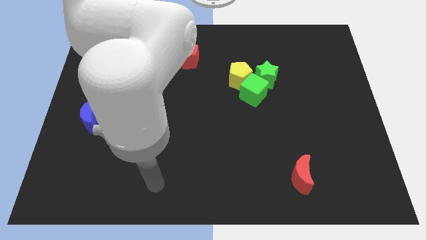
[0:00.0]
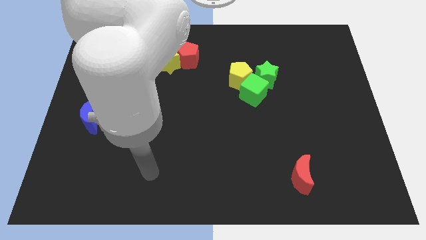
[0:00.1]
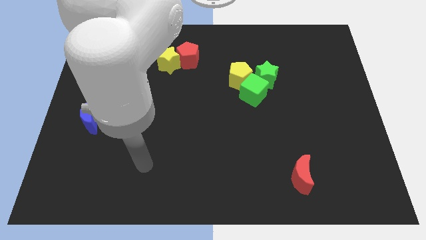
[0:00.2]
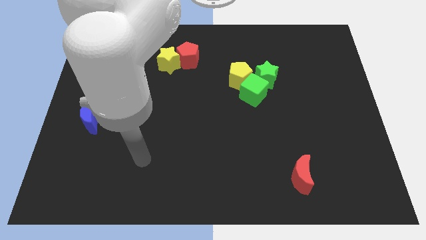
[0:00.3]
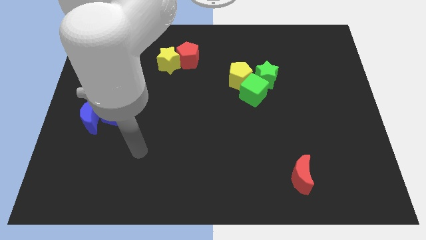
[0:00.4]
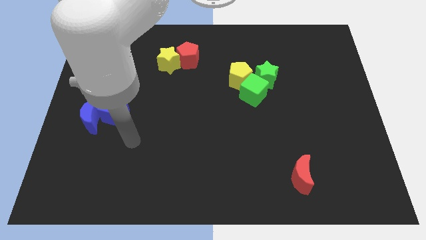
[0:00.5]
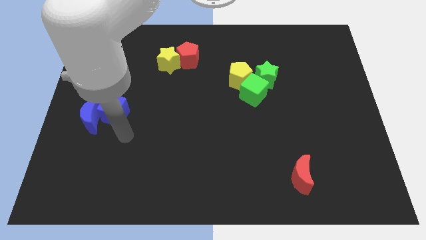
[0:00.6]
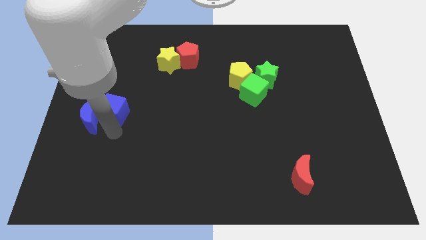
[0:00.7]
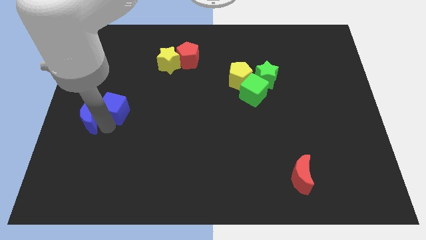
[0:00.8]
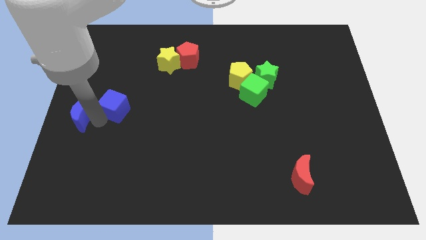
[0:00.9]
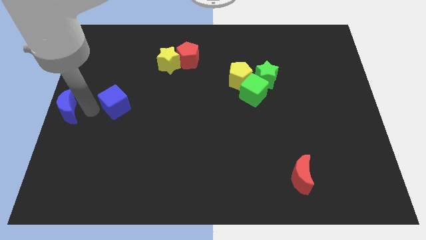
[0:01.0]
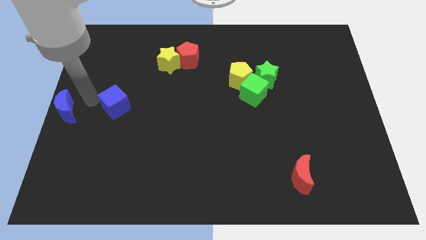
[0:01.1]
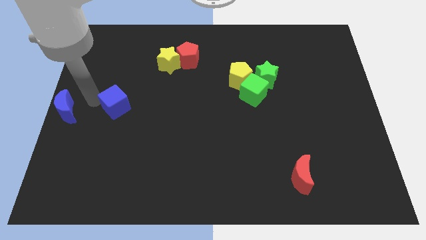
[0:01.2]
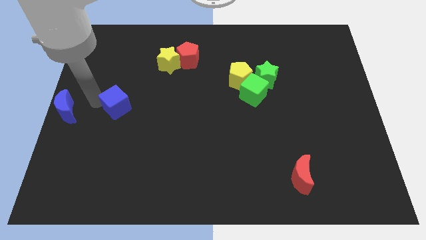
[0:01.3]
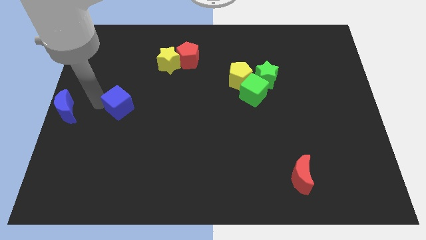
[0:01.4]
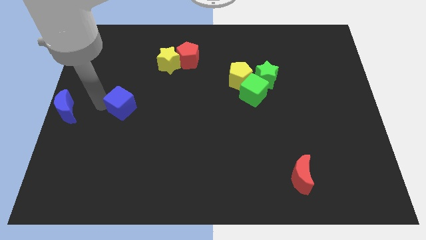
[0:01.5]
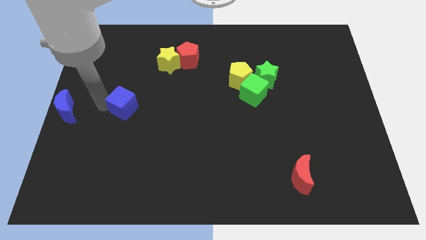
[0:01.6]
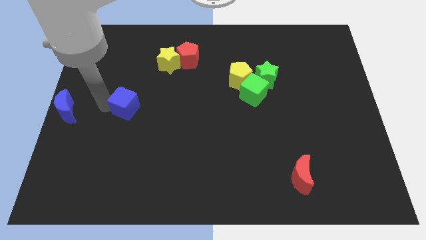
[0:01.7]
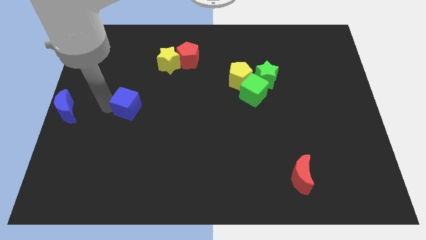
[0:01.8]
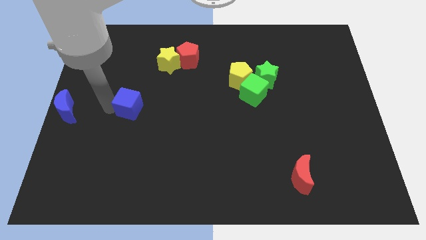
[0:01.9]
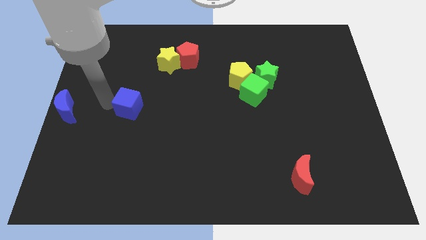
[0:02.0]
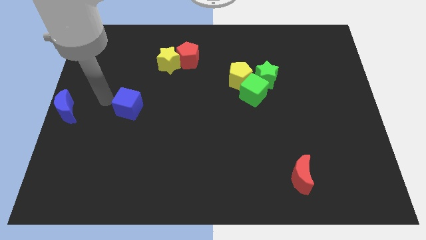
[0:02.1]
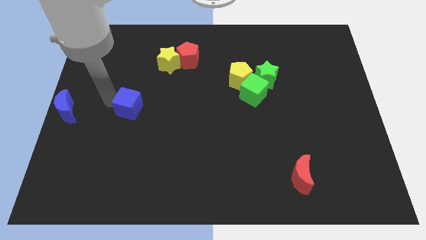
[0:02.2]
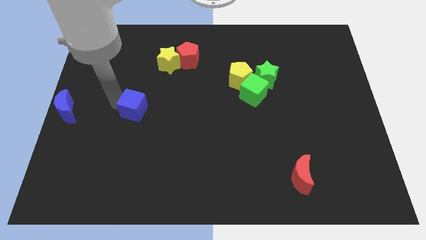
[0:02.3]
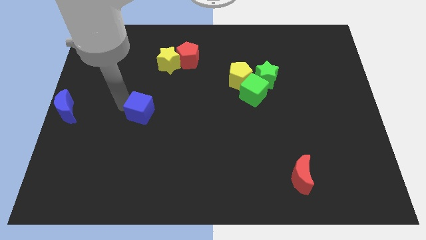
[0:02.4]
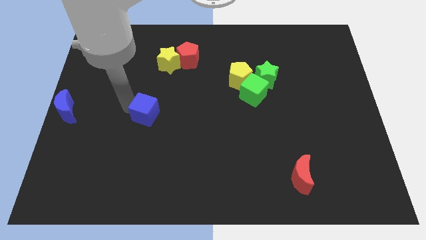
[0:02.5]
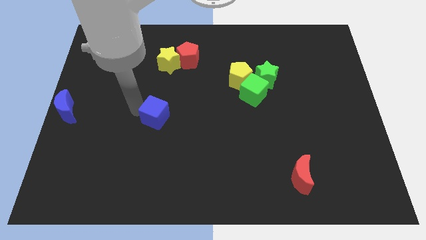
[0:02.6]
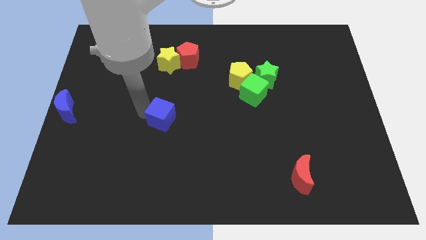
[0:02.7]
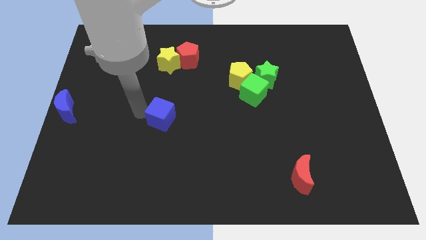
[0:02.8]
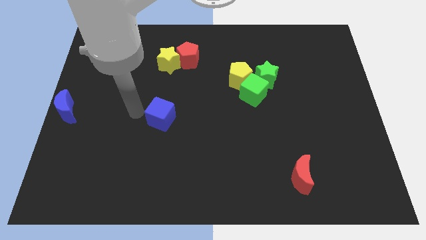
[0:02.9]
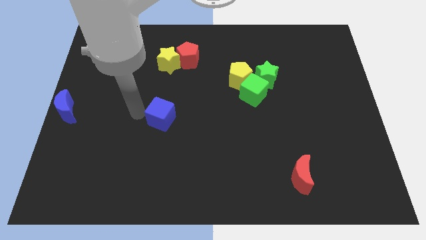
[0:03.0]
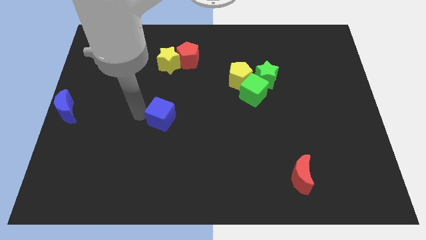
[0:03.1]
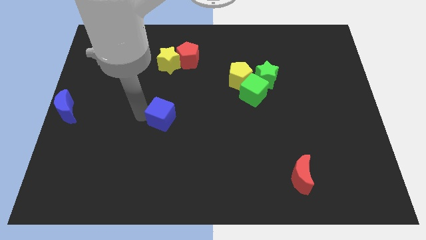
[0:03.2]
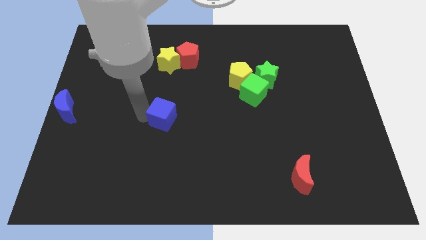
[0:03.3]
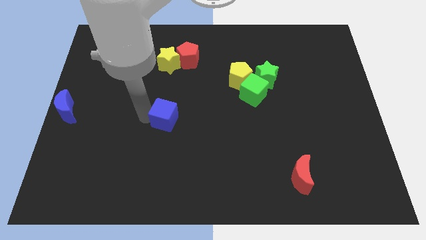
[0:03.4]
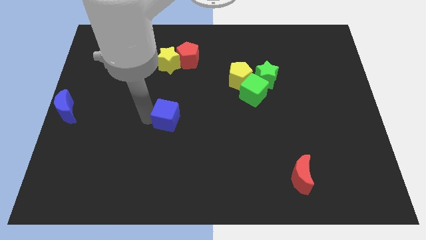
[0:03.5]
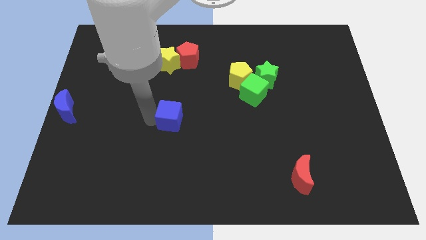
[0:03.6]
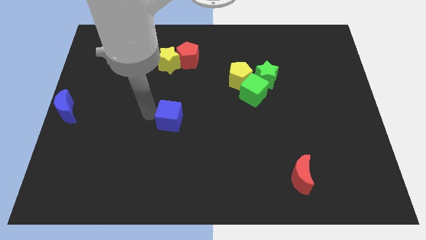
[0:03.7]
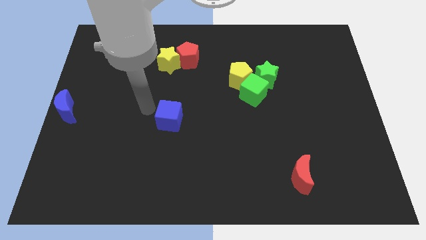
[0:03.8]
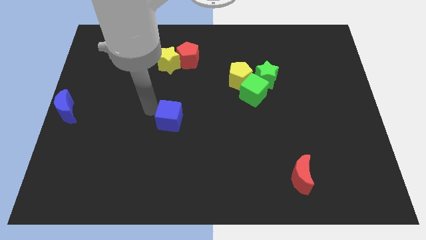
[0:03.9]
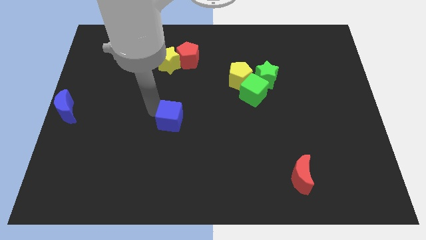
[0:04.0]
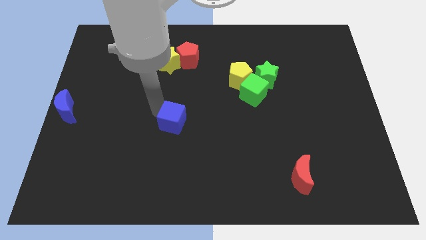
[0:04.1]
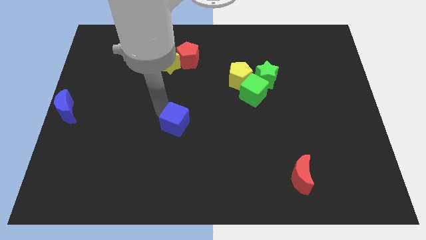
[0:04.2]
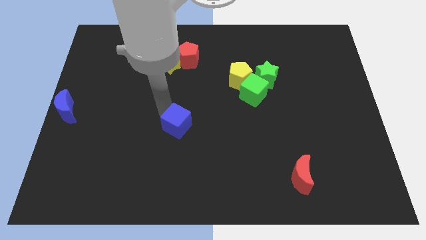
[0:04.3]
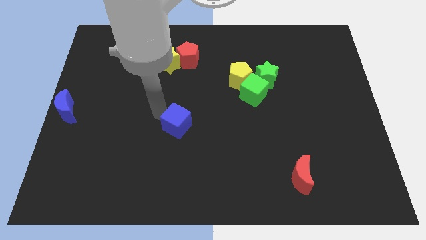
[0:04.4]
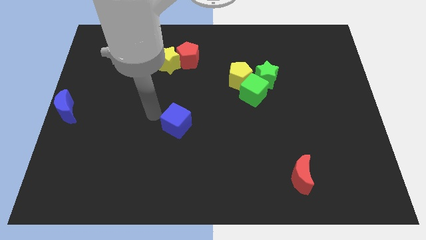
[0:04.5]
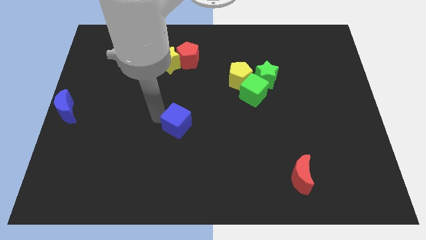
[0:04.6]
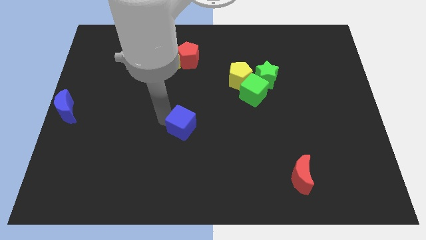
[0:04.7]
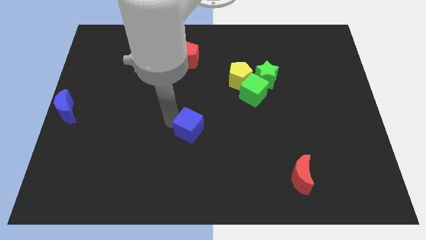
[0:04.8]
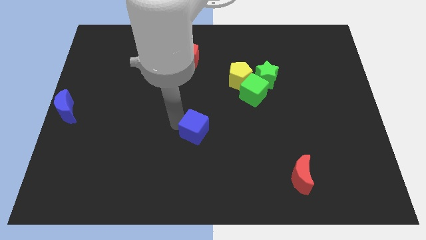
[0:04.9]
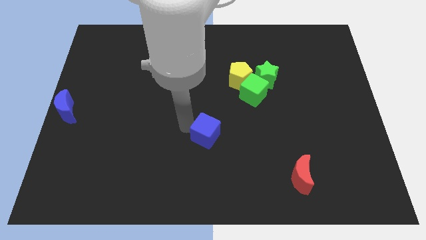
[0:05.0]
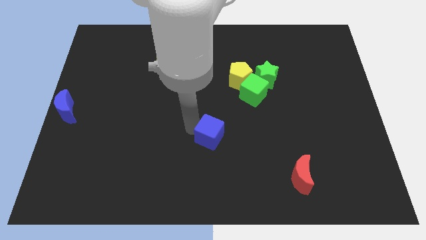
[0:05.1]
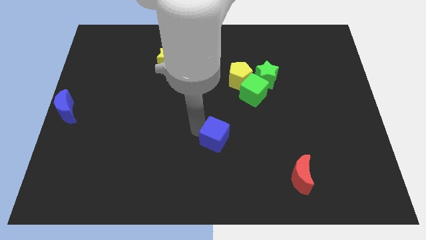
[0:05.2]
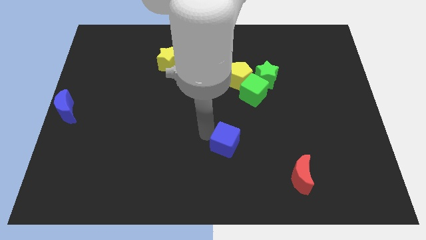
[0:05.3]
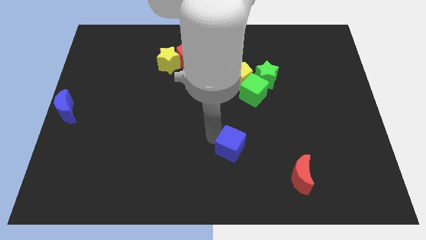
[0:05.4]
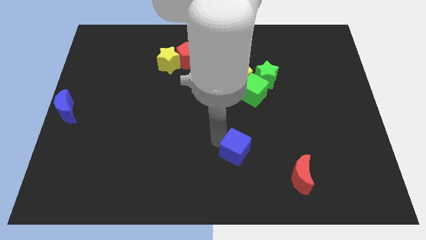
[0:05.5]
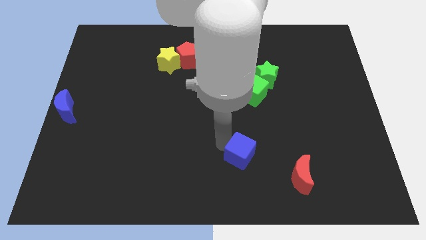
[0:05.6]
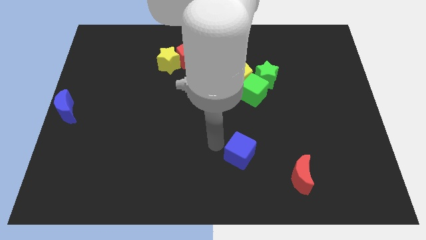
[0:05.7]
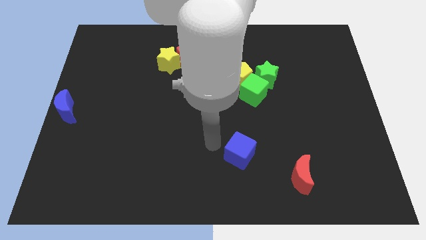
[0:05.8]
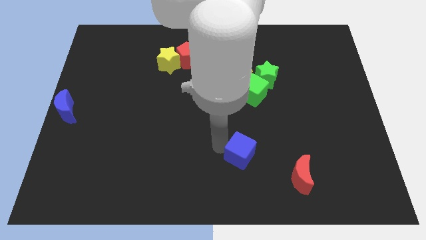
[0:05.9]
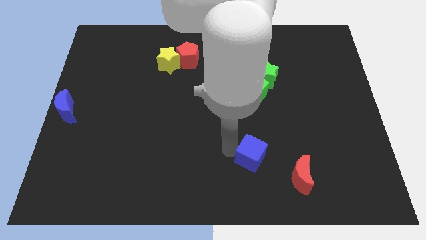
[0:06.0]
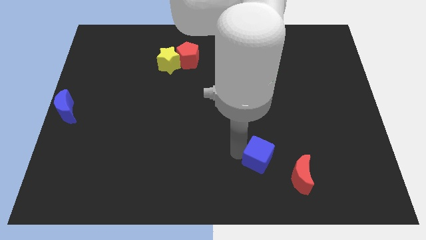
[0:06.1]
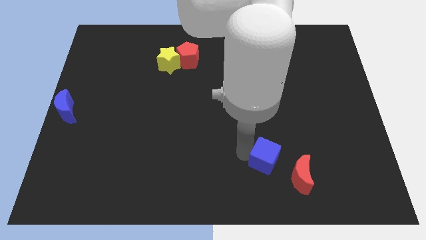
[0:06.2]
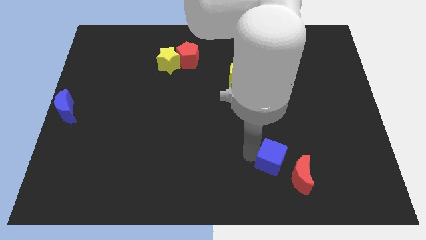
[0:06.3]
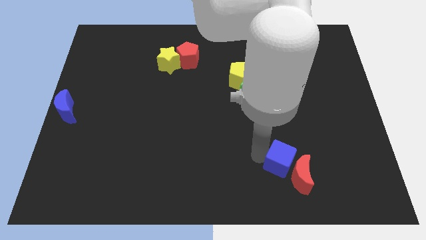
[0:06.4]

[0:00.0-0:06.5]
slide the blue cube close to the red moon

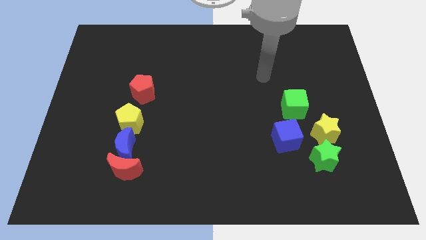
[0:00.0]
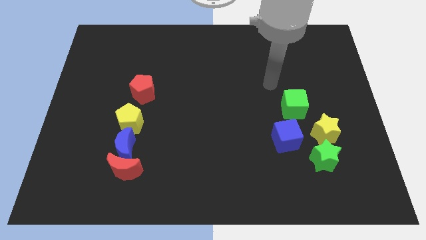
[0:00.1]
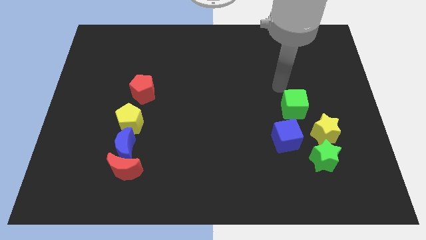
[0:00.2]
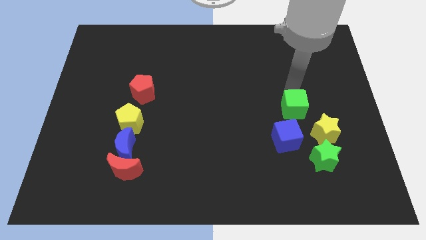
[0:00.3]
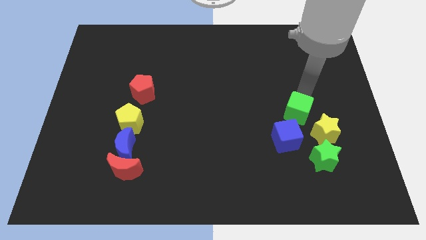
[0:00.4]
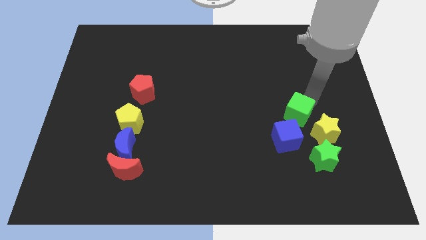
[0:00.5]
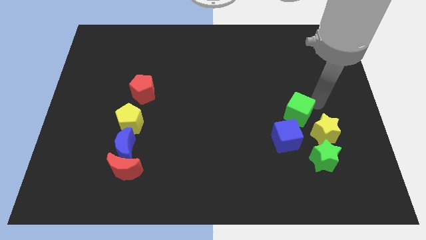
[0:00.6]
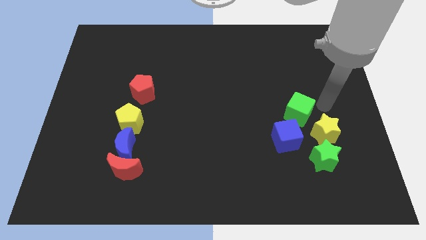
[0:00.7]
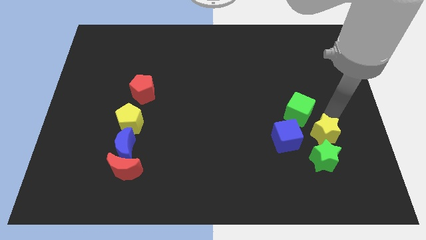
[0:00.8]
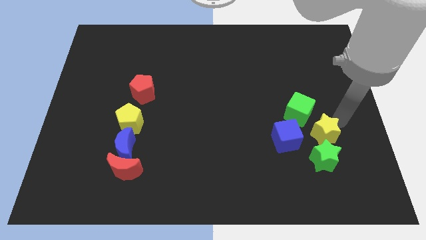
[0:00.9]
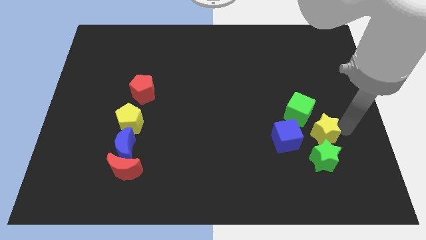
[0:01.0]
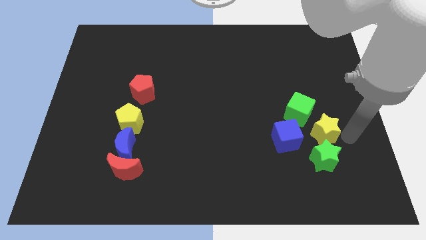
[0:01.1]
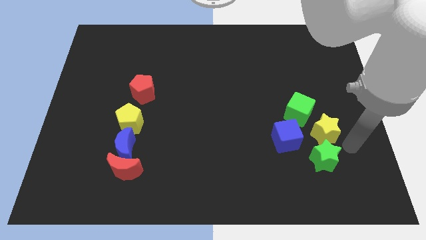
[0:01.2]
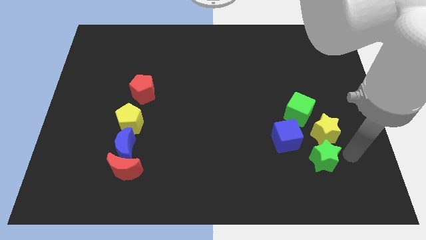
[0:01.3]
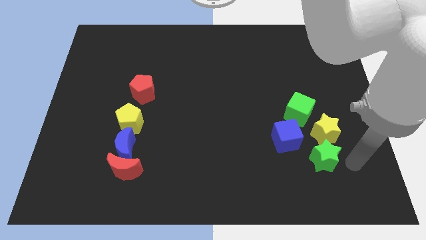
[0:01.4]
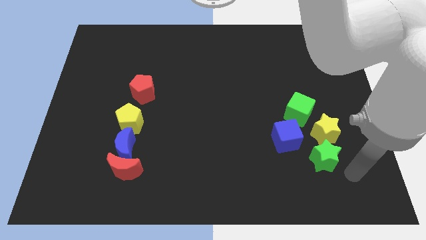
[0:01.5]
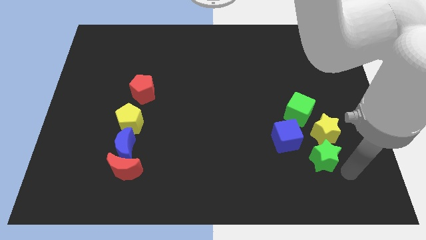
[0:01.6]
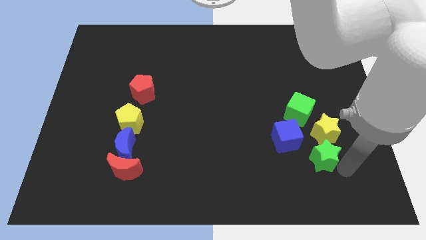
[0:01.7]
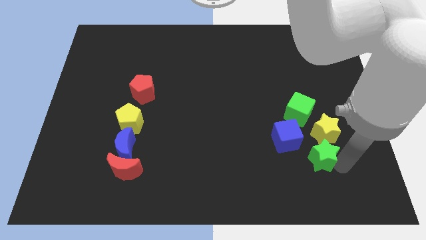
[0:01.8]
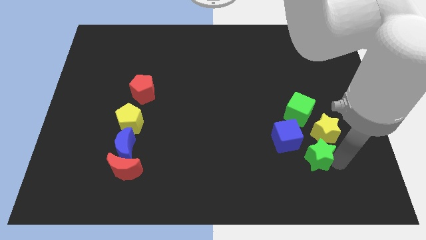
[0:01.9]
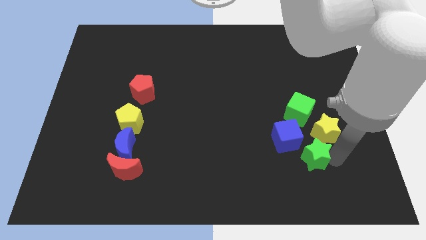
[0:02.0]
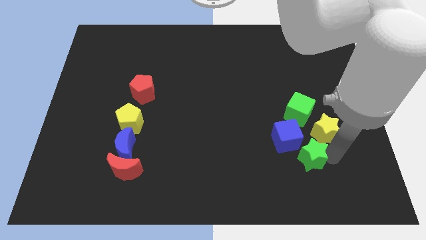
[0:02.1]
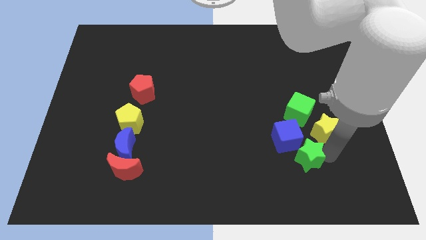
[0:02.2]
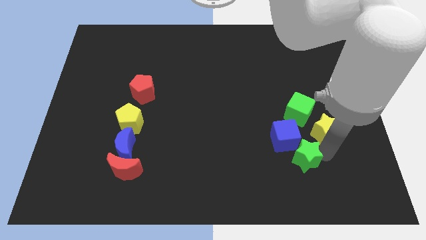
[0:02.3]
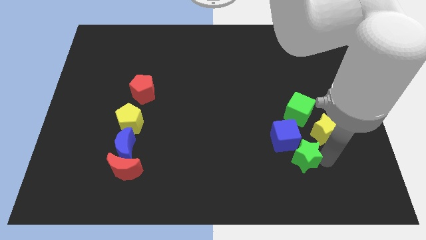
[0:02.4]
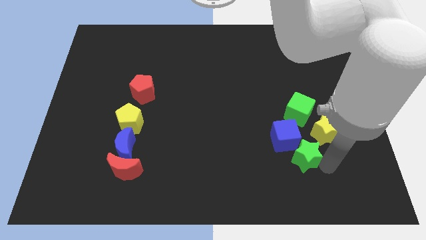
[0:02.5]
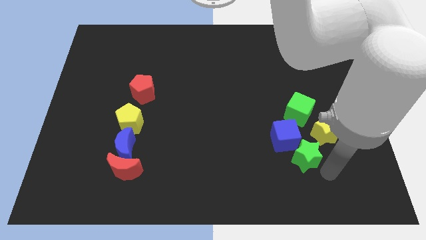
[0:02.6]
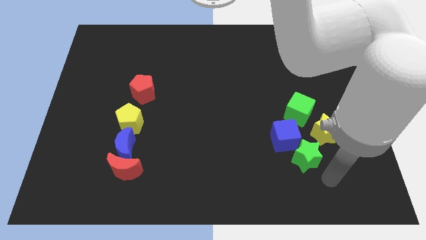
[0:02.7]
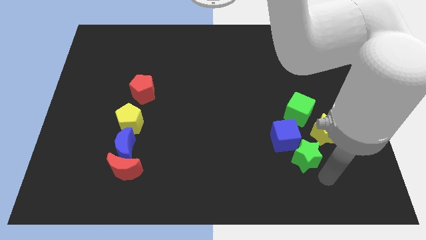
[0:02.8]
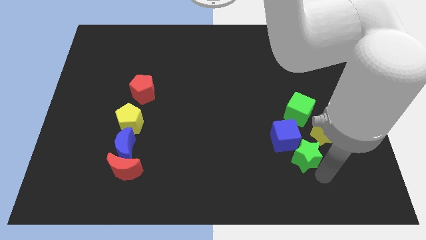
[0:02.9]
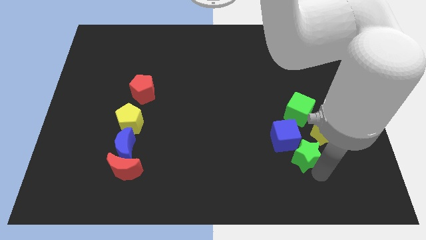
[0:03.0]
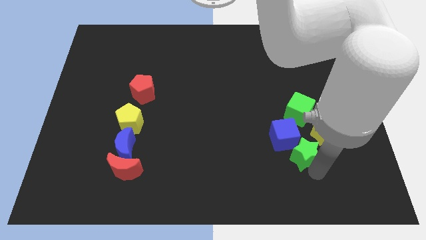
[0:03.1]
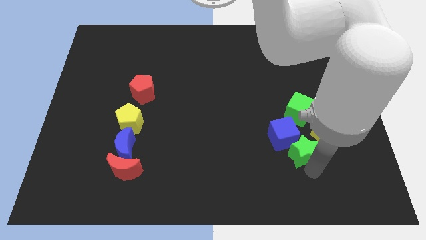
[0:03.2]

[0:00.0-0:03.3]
push the green star to the blue cube
